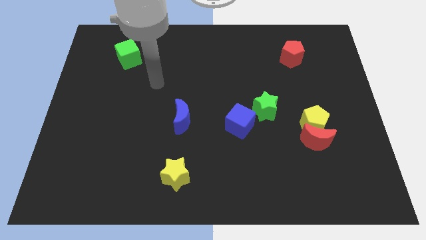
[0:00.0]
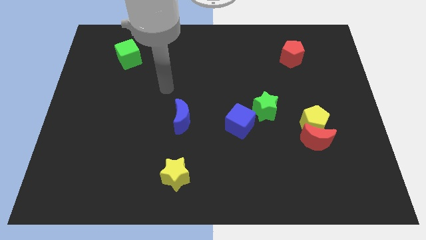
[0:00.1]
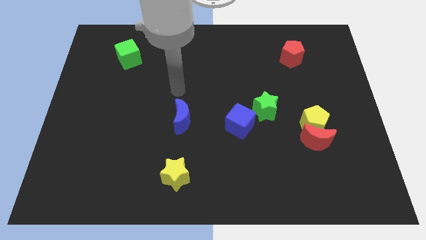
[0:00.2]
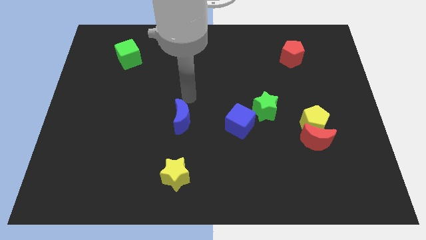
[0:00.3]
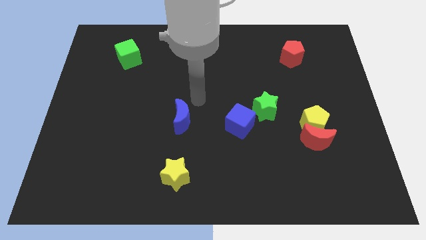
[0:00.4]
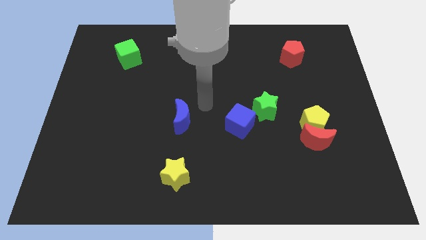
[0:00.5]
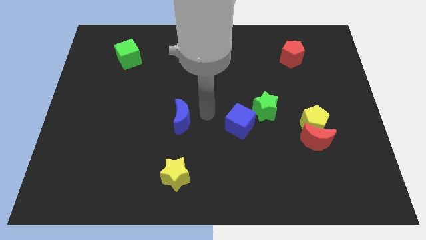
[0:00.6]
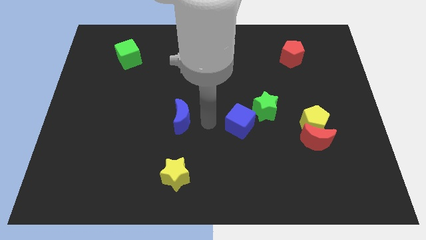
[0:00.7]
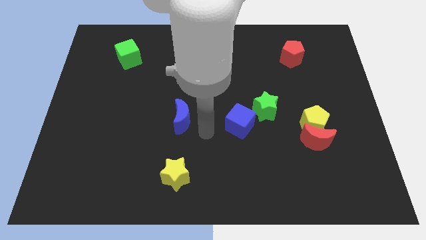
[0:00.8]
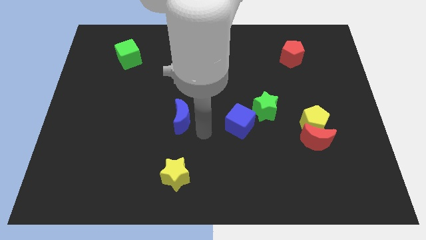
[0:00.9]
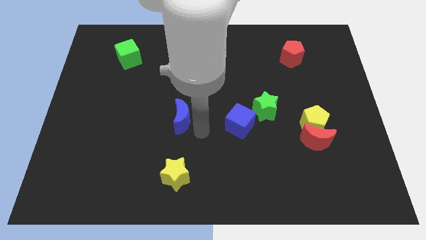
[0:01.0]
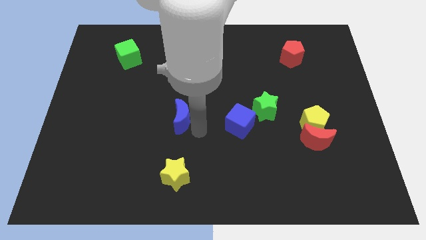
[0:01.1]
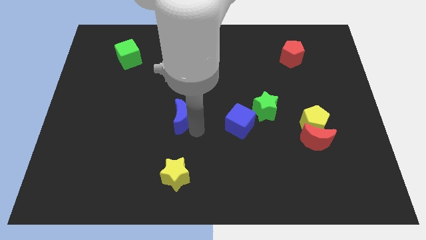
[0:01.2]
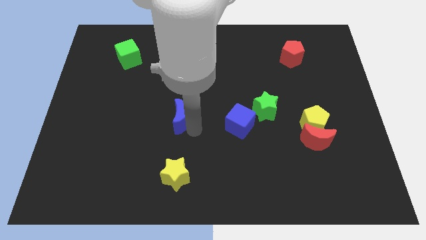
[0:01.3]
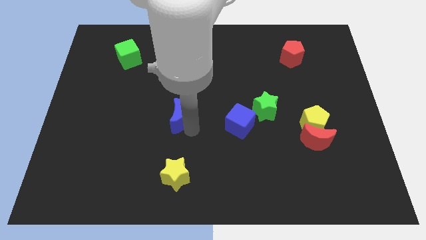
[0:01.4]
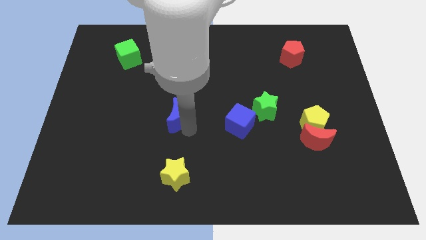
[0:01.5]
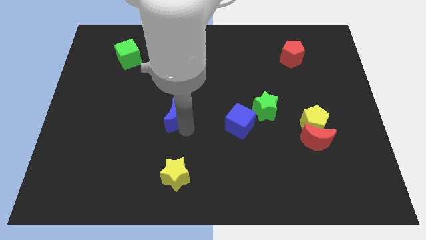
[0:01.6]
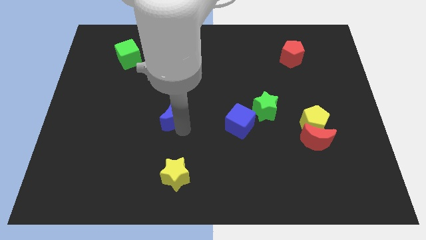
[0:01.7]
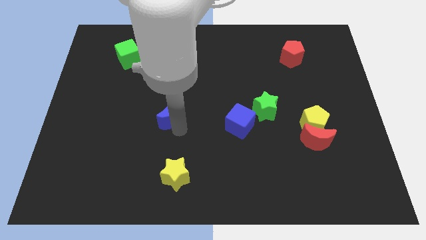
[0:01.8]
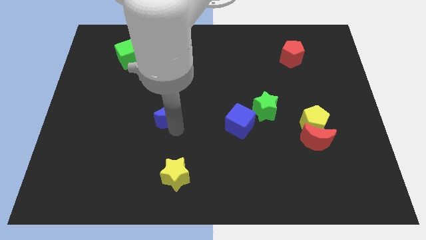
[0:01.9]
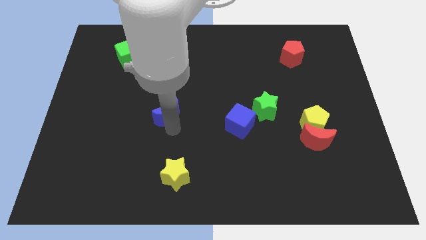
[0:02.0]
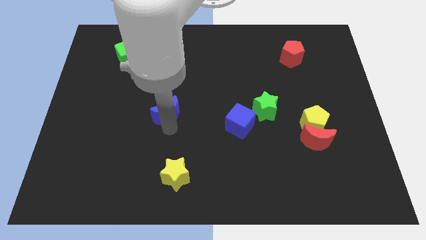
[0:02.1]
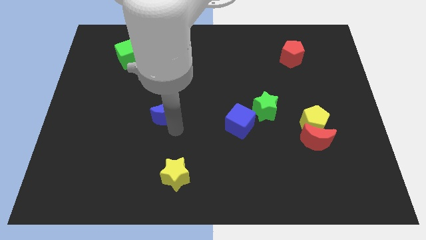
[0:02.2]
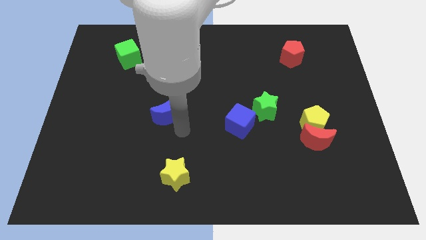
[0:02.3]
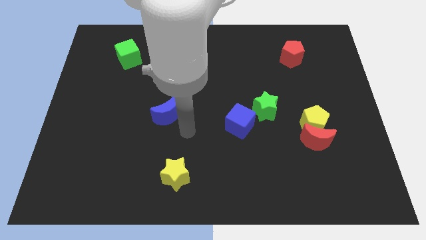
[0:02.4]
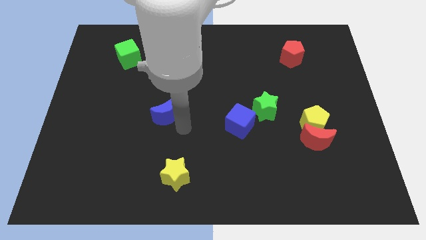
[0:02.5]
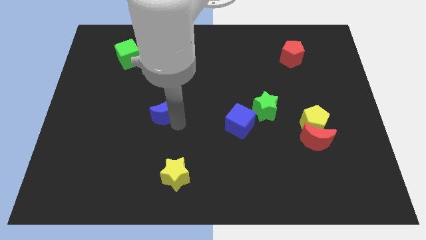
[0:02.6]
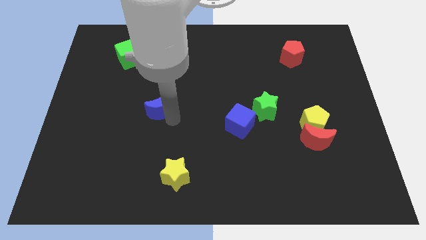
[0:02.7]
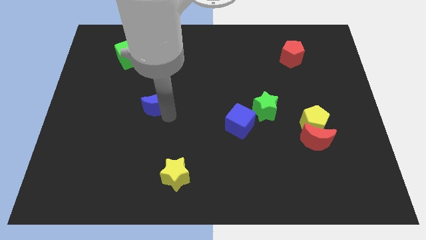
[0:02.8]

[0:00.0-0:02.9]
slightly slide the blue moon diagonally upwards and left

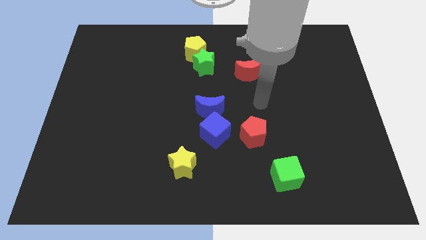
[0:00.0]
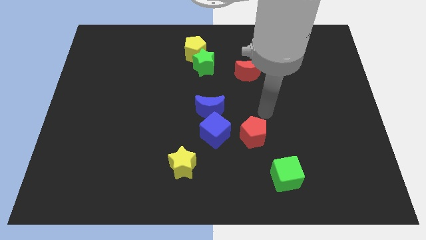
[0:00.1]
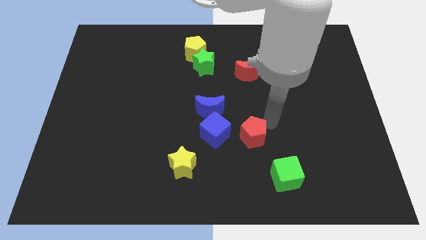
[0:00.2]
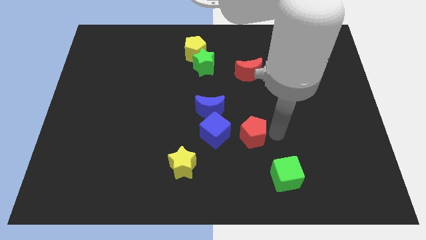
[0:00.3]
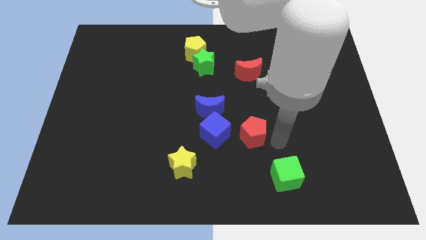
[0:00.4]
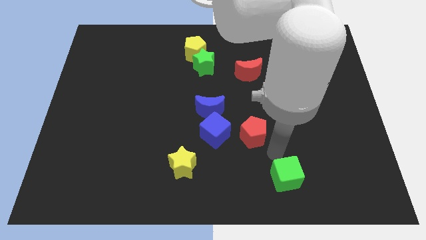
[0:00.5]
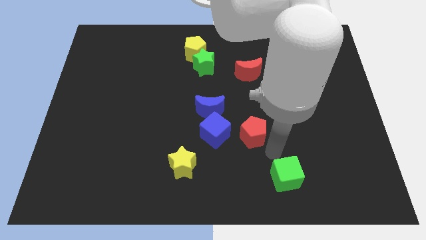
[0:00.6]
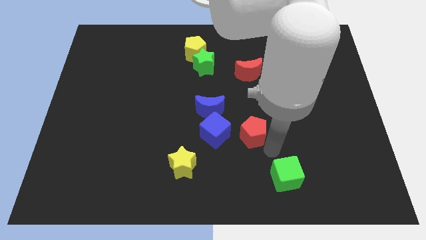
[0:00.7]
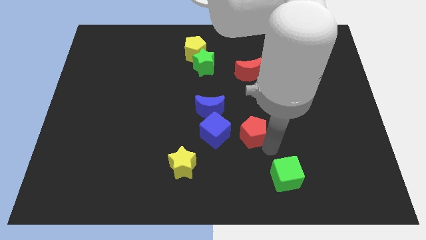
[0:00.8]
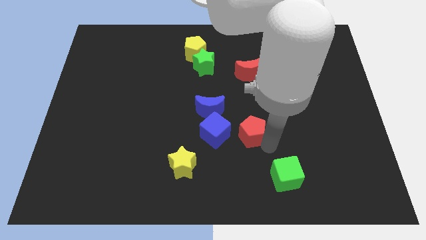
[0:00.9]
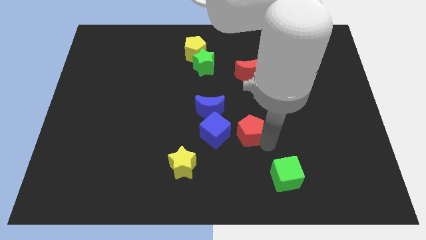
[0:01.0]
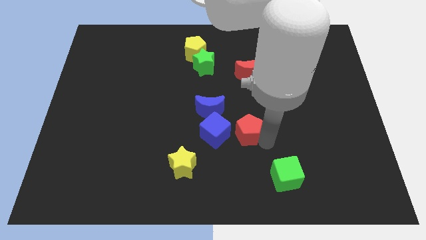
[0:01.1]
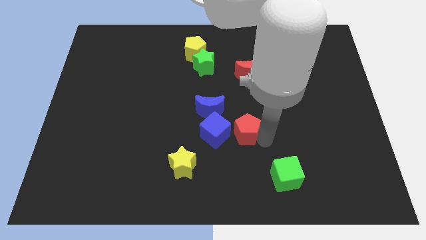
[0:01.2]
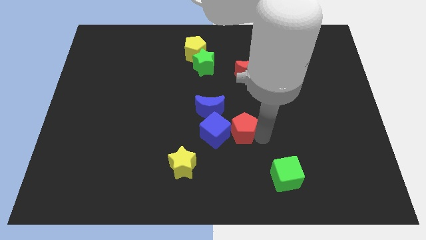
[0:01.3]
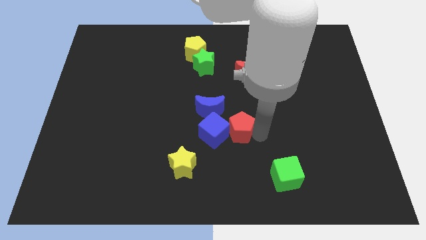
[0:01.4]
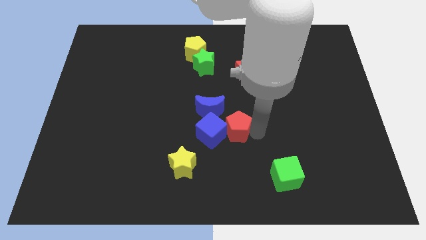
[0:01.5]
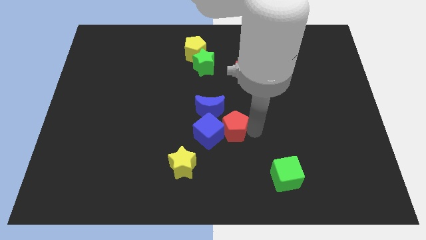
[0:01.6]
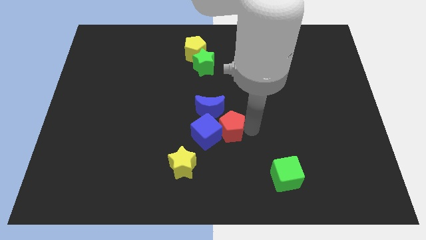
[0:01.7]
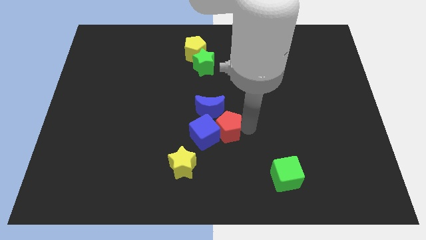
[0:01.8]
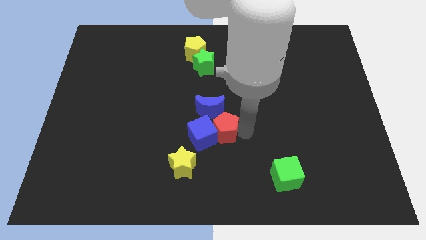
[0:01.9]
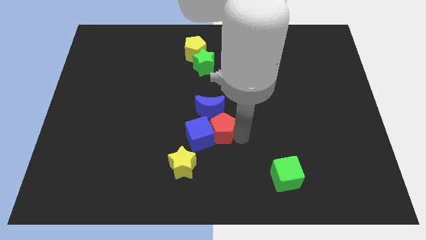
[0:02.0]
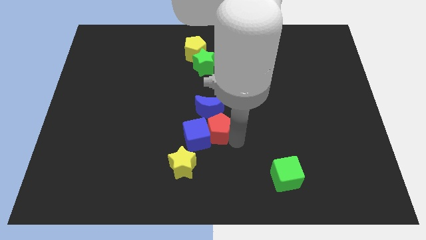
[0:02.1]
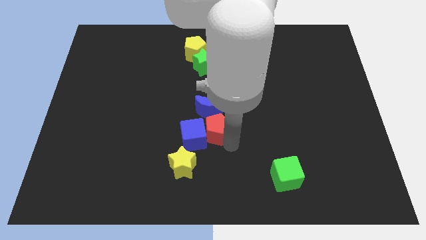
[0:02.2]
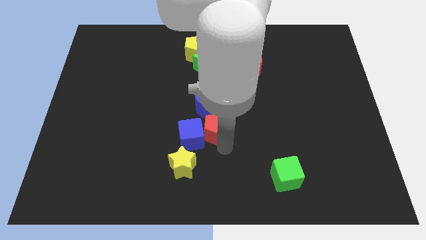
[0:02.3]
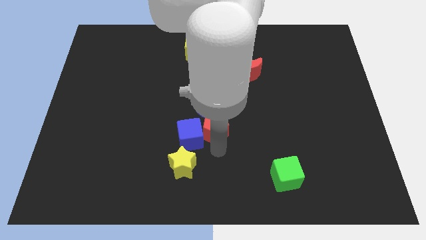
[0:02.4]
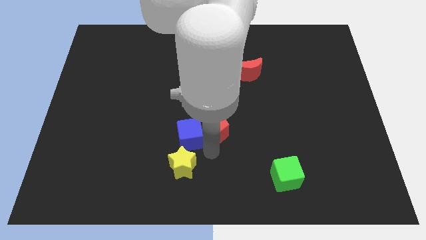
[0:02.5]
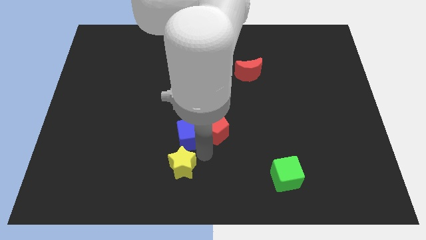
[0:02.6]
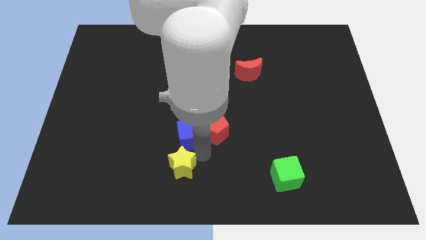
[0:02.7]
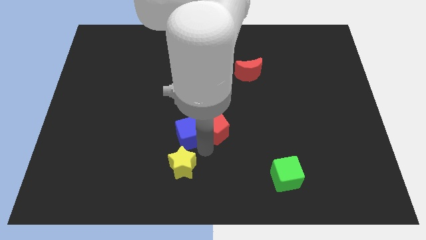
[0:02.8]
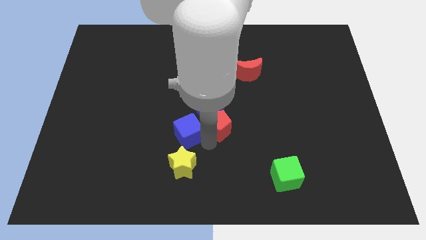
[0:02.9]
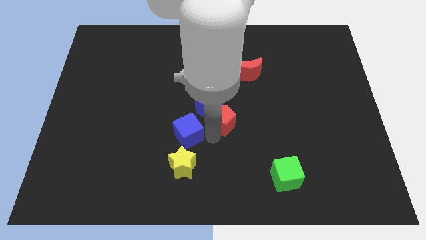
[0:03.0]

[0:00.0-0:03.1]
move the red pentagon diagonally upwards and left a bit

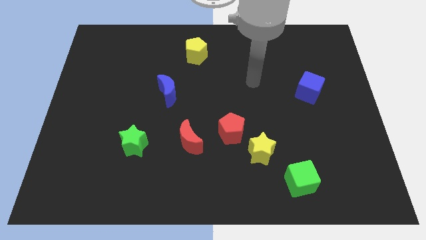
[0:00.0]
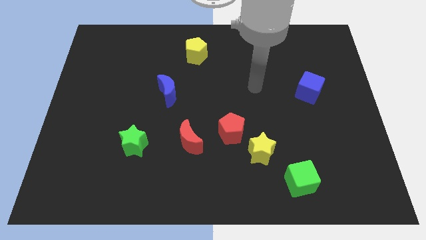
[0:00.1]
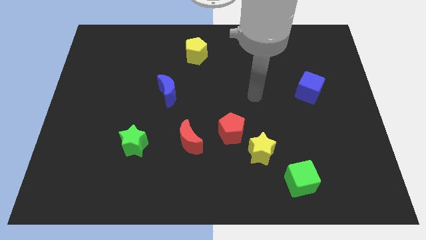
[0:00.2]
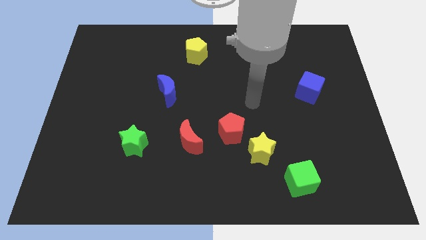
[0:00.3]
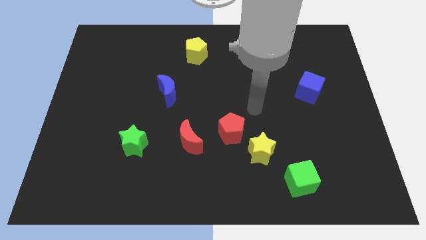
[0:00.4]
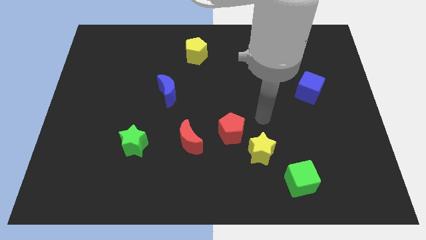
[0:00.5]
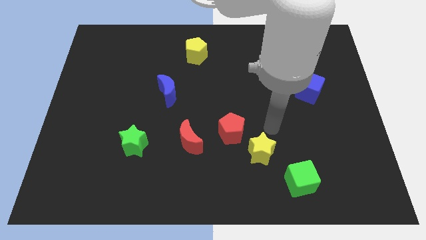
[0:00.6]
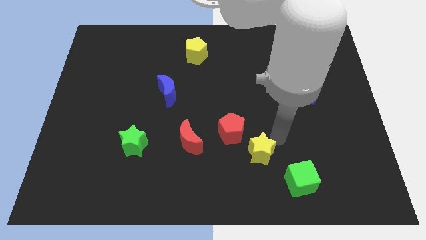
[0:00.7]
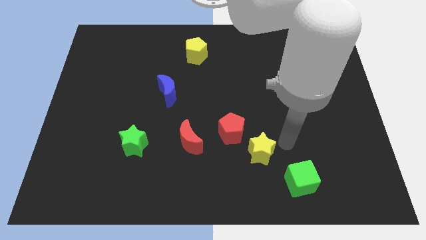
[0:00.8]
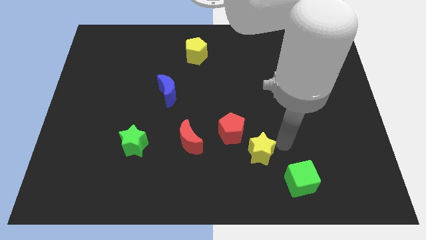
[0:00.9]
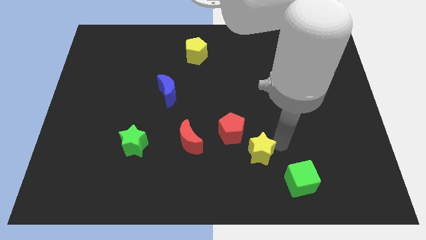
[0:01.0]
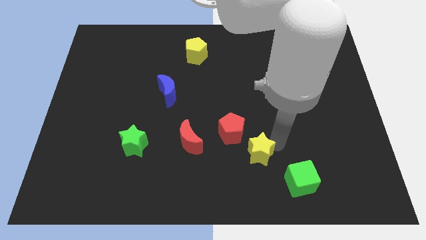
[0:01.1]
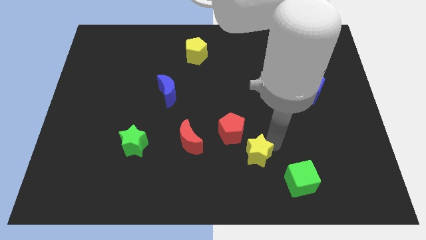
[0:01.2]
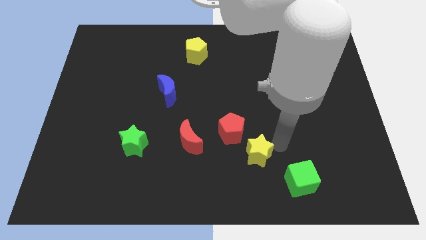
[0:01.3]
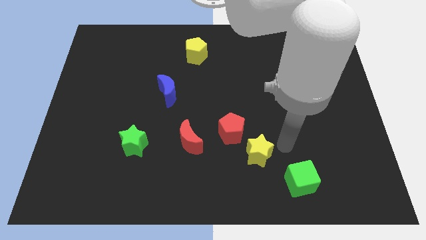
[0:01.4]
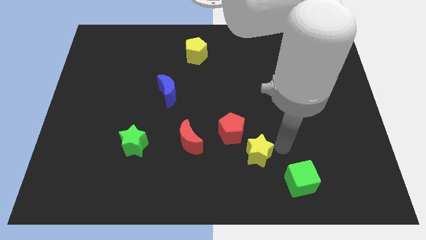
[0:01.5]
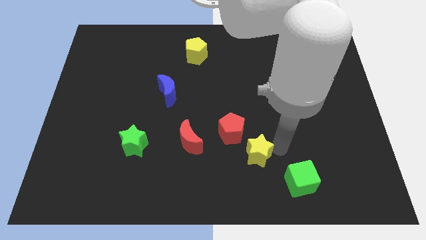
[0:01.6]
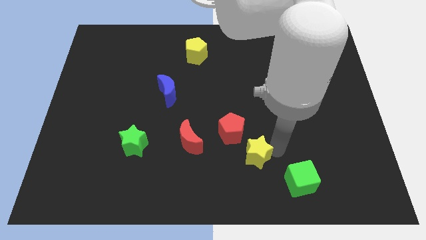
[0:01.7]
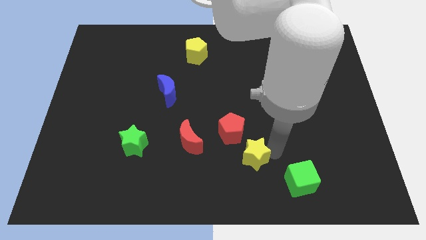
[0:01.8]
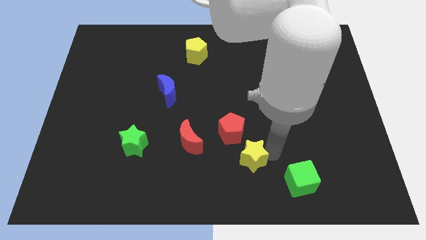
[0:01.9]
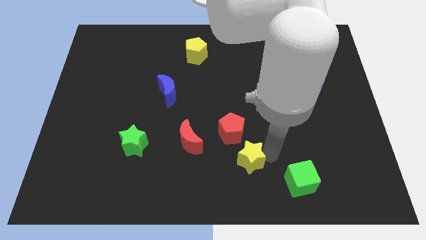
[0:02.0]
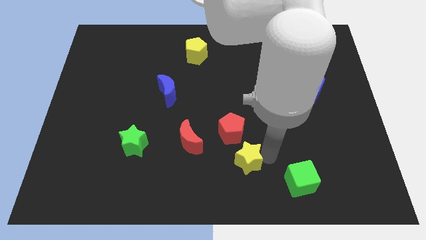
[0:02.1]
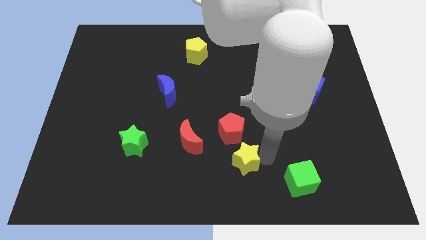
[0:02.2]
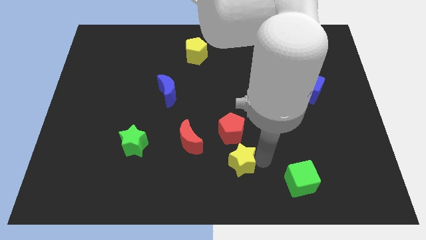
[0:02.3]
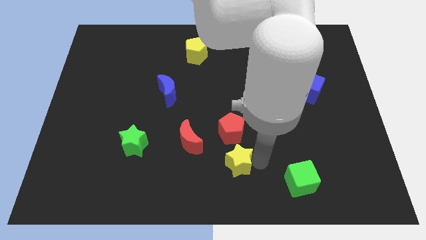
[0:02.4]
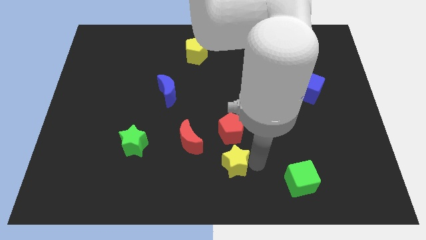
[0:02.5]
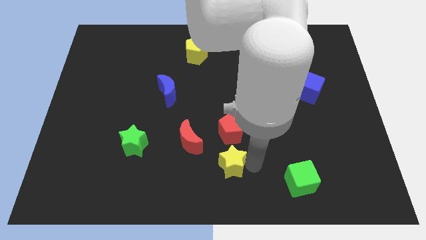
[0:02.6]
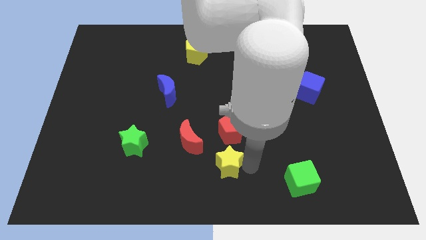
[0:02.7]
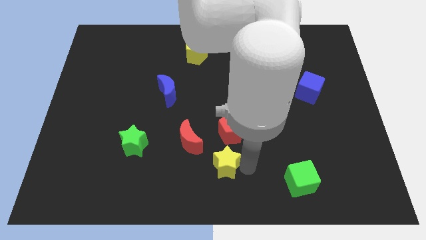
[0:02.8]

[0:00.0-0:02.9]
slightly move the yellow star left
